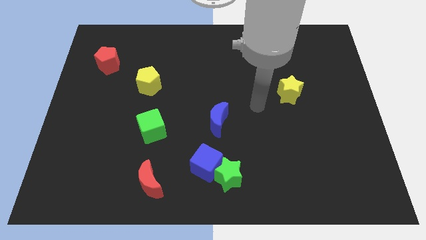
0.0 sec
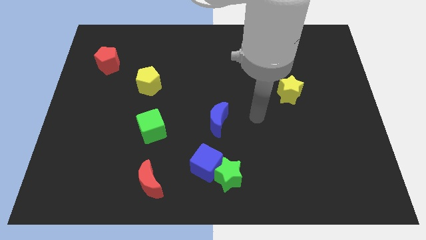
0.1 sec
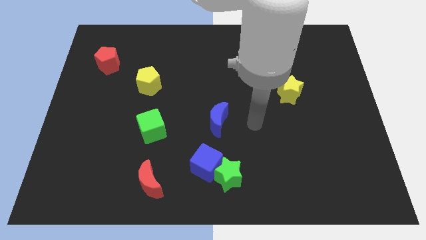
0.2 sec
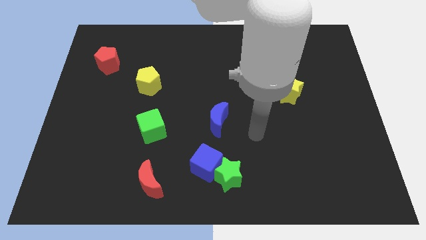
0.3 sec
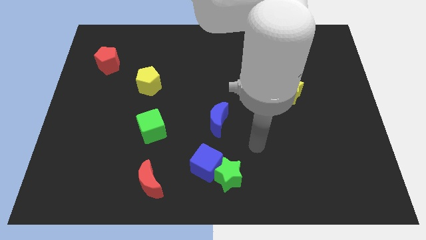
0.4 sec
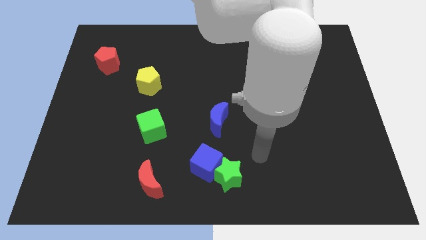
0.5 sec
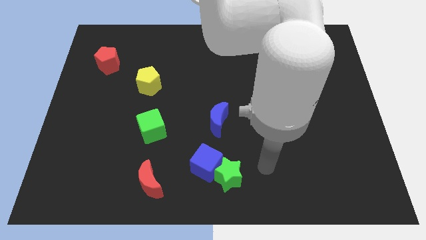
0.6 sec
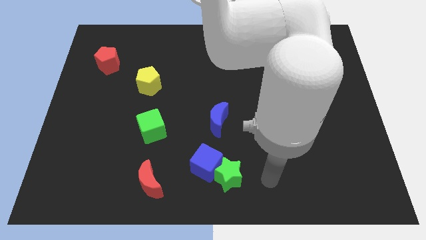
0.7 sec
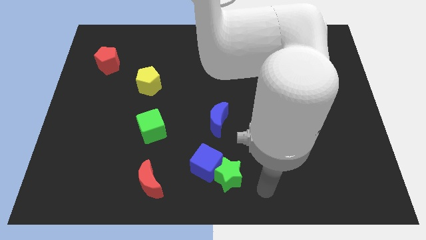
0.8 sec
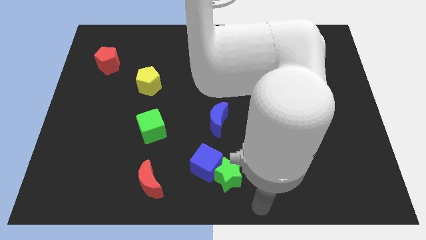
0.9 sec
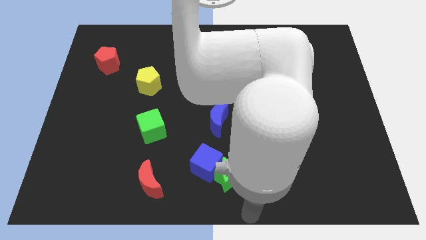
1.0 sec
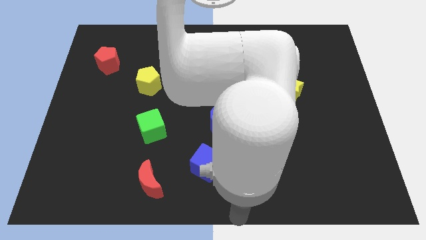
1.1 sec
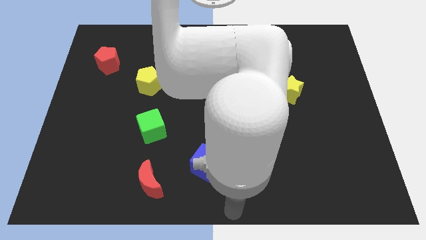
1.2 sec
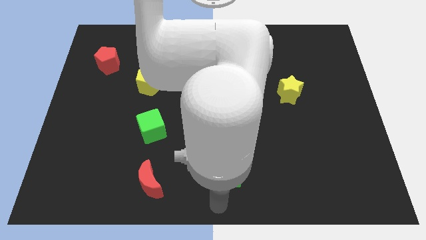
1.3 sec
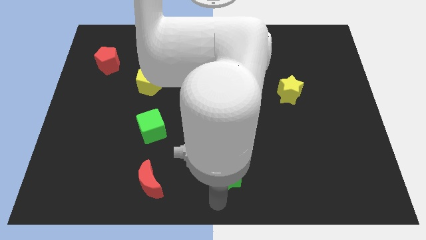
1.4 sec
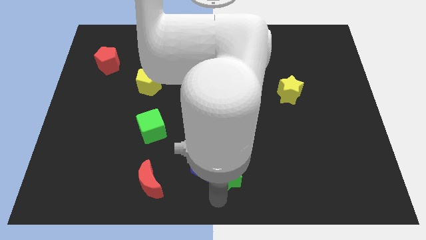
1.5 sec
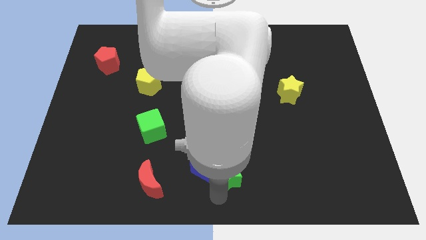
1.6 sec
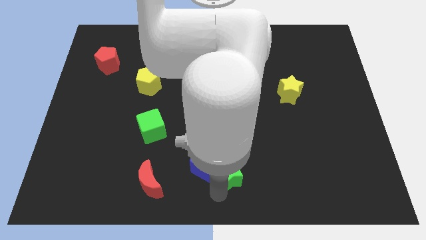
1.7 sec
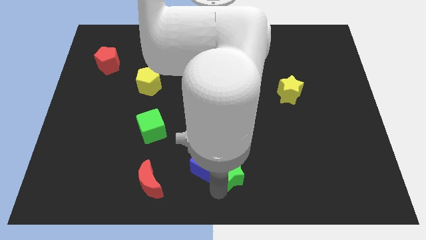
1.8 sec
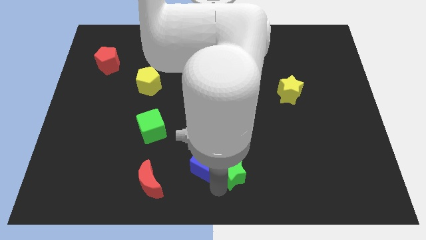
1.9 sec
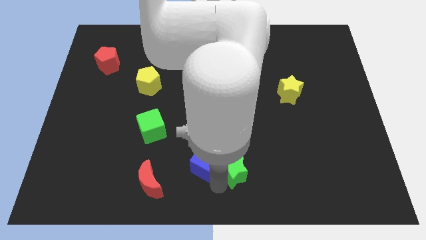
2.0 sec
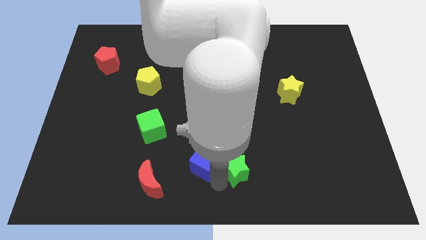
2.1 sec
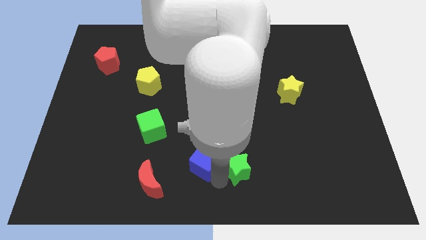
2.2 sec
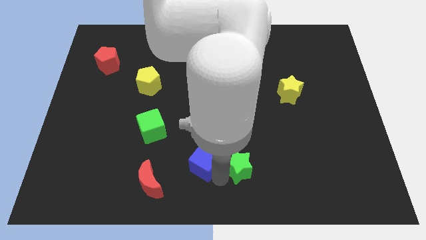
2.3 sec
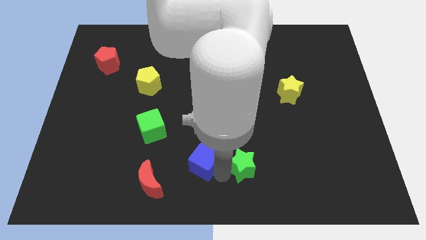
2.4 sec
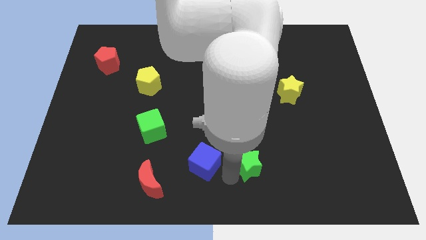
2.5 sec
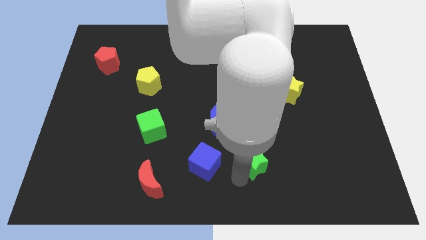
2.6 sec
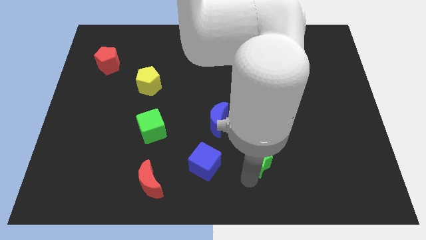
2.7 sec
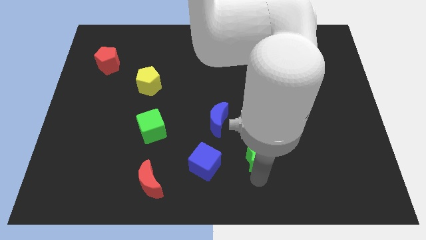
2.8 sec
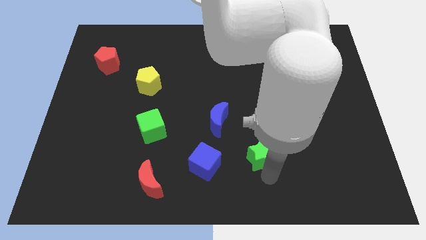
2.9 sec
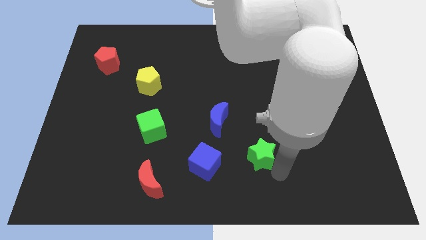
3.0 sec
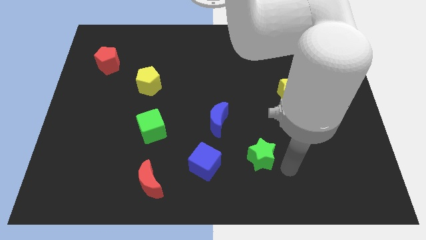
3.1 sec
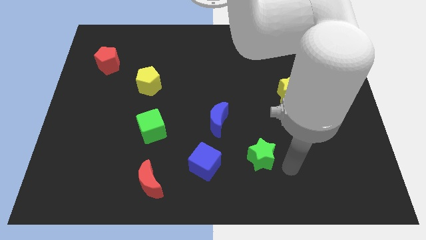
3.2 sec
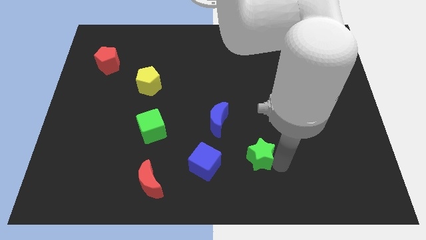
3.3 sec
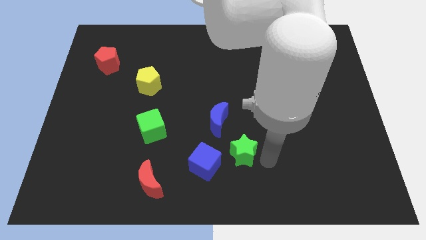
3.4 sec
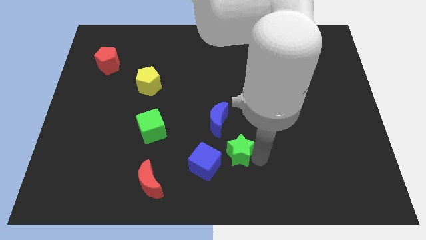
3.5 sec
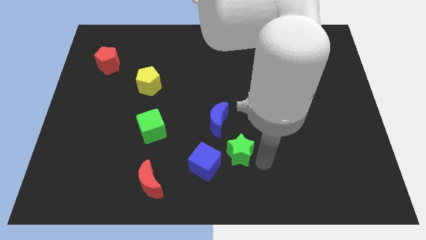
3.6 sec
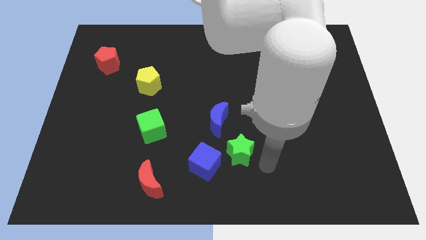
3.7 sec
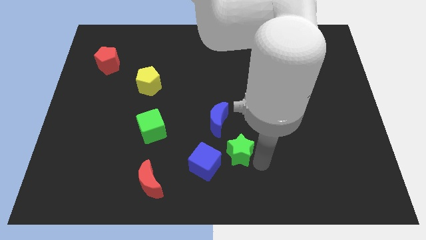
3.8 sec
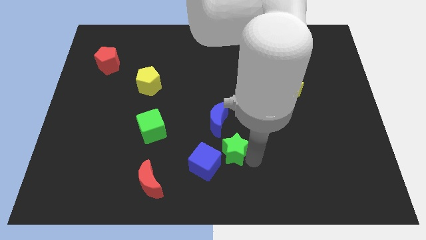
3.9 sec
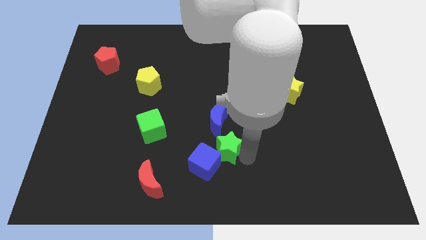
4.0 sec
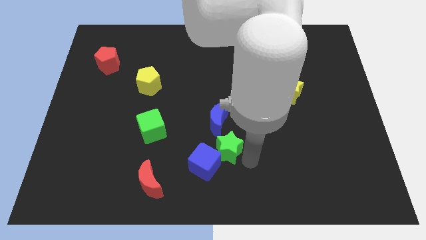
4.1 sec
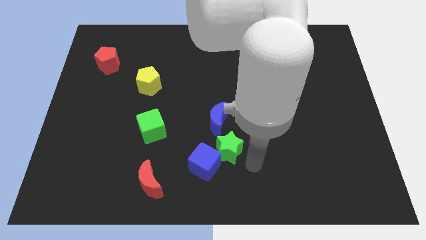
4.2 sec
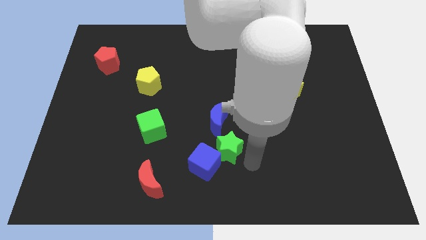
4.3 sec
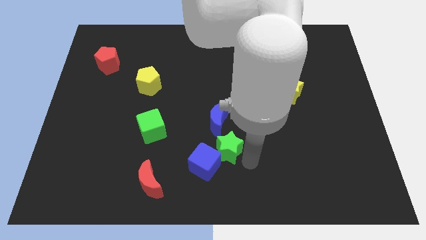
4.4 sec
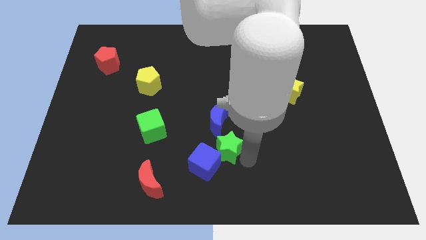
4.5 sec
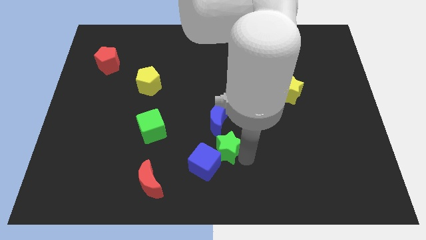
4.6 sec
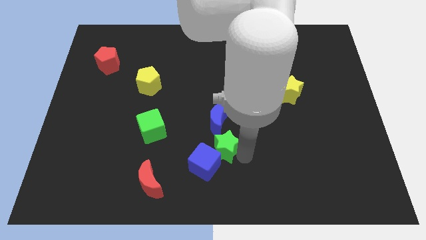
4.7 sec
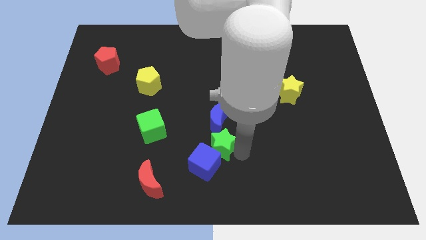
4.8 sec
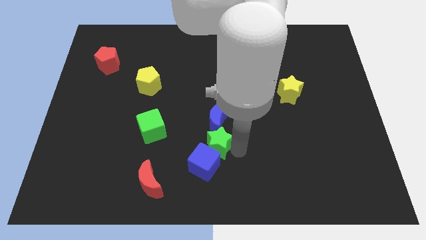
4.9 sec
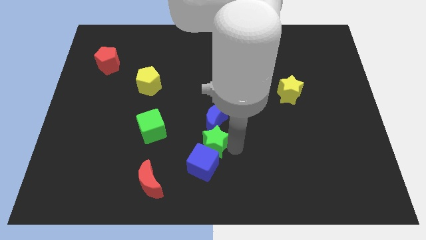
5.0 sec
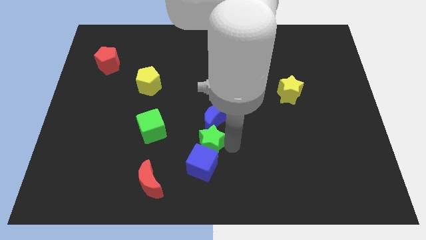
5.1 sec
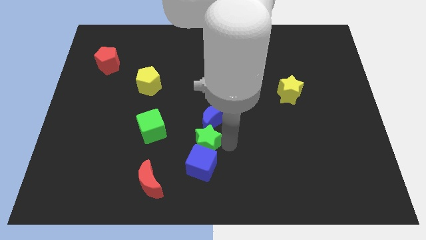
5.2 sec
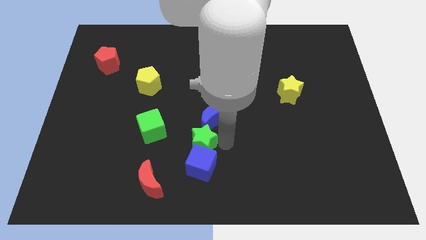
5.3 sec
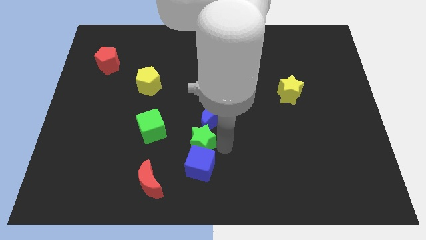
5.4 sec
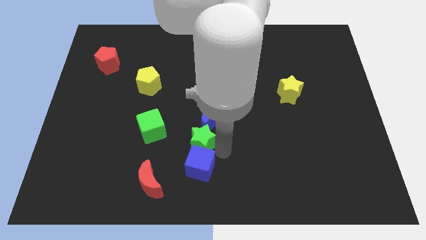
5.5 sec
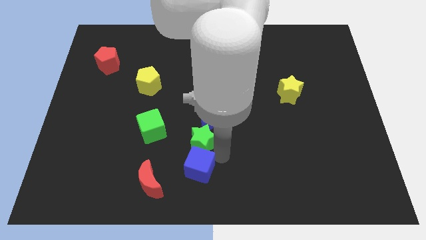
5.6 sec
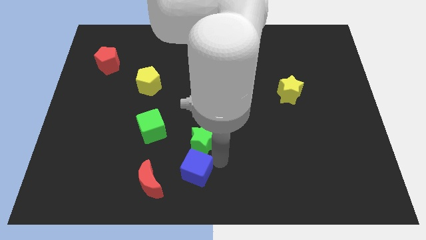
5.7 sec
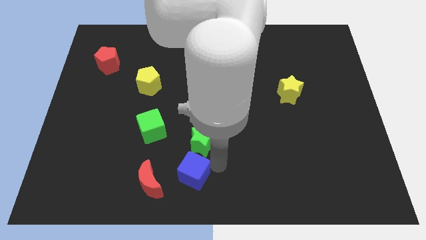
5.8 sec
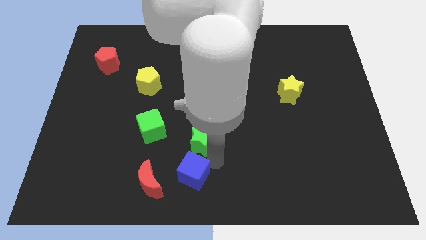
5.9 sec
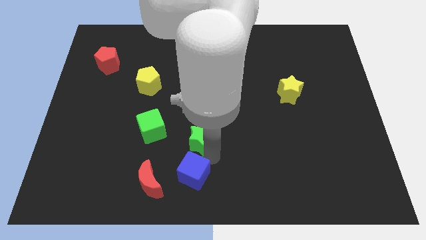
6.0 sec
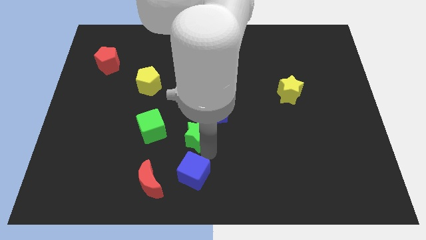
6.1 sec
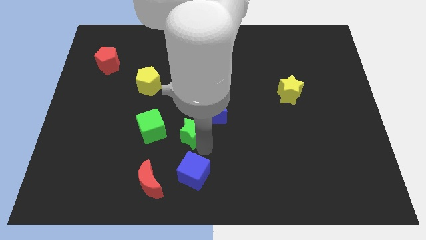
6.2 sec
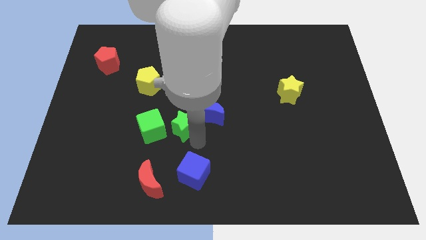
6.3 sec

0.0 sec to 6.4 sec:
slide the green star to the top right of the green cube

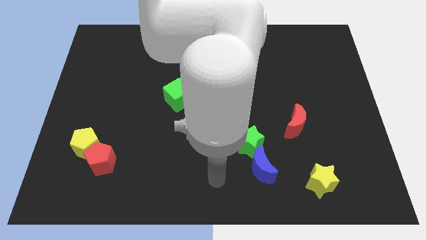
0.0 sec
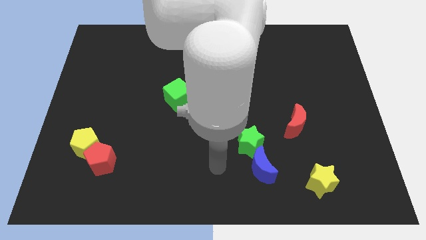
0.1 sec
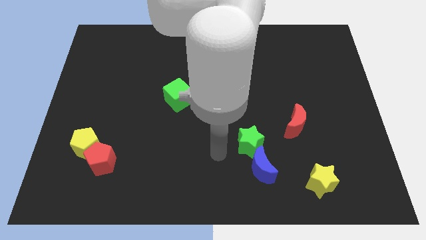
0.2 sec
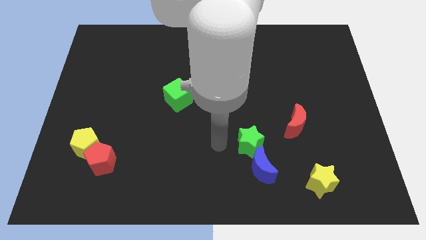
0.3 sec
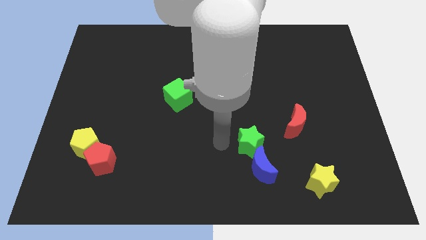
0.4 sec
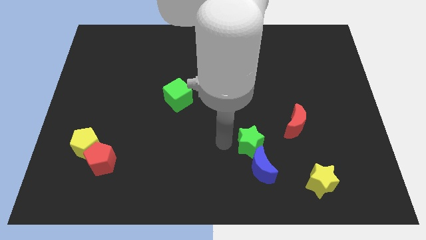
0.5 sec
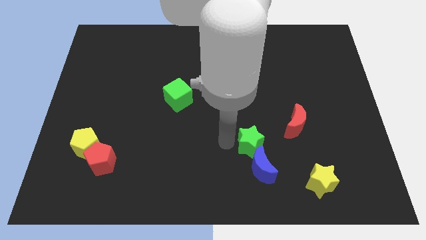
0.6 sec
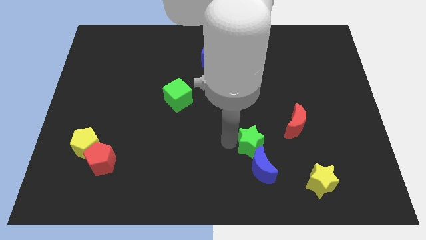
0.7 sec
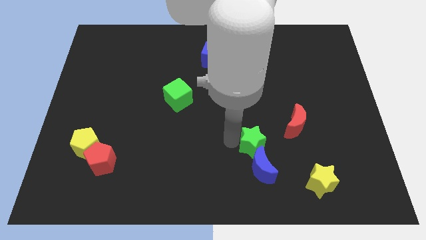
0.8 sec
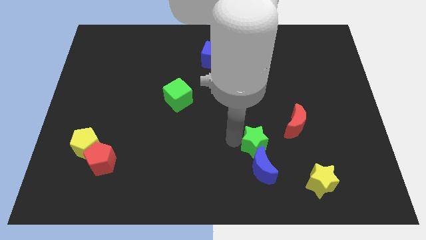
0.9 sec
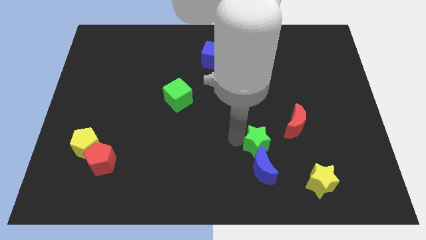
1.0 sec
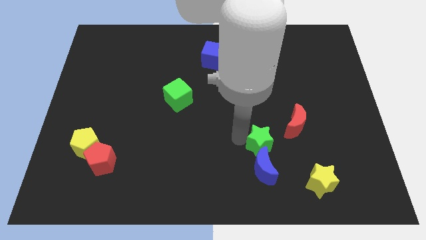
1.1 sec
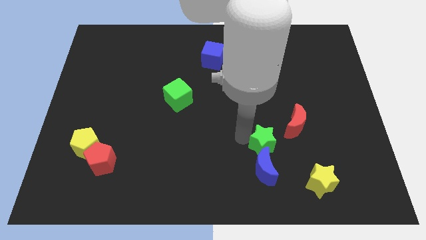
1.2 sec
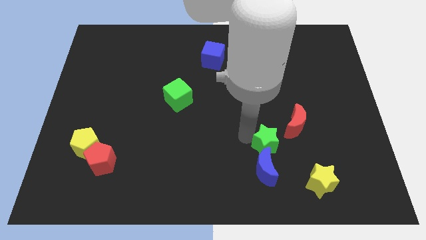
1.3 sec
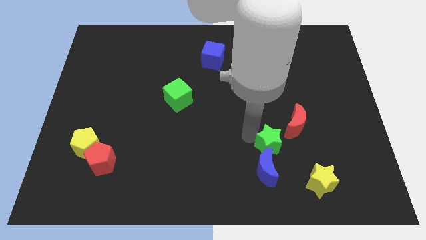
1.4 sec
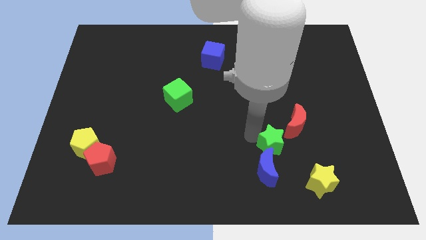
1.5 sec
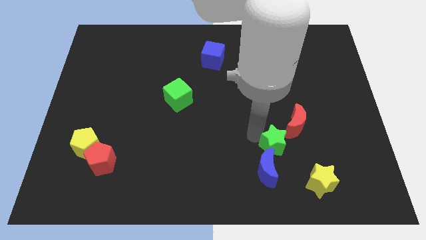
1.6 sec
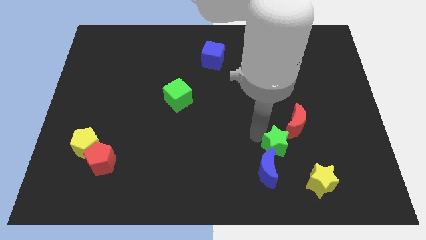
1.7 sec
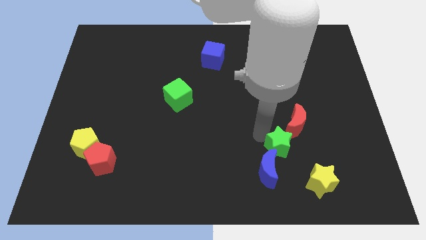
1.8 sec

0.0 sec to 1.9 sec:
push the green star to the bottom of the red moon
